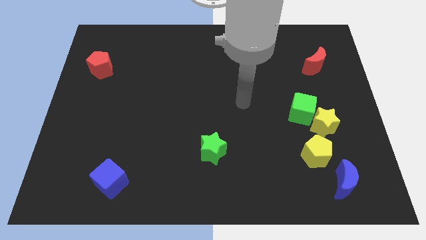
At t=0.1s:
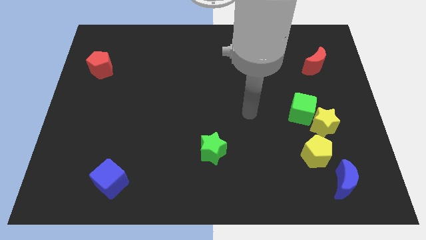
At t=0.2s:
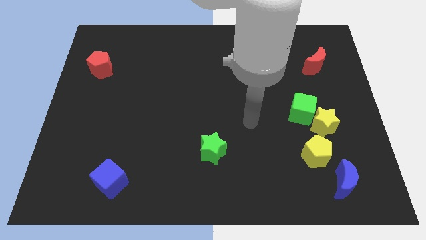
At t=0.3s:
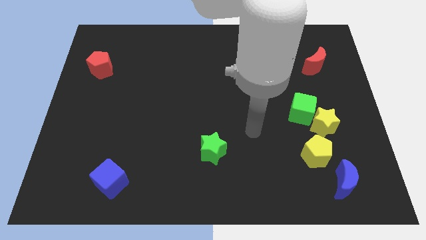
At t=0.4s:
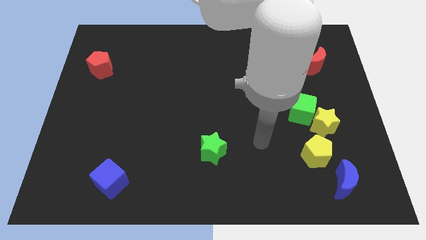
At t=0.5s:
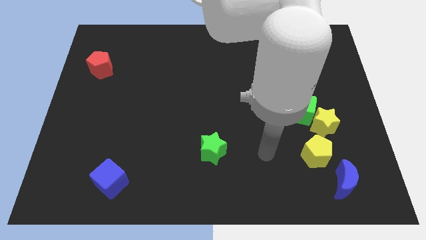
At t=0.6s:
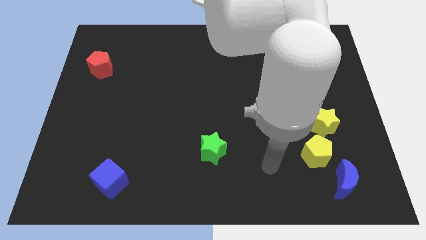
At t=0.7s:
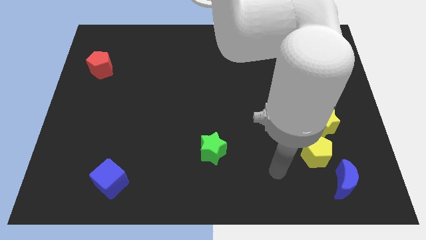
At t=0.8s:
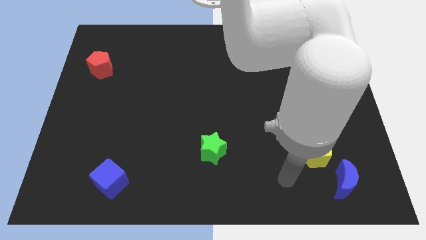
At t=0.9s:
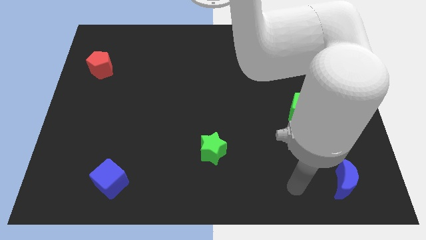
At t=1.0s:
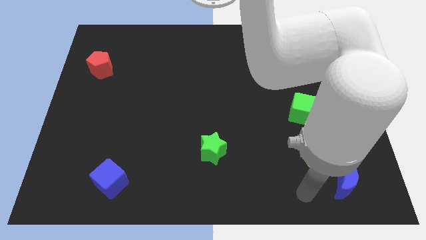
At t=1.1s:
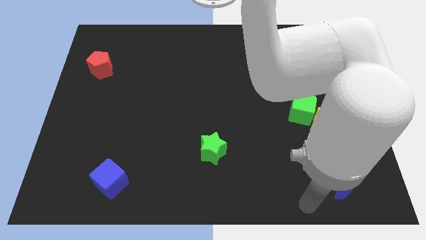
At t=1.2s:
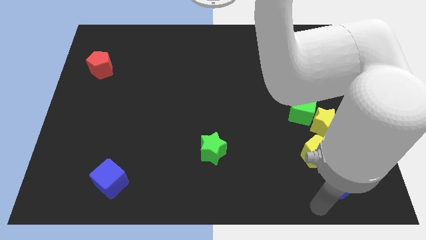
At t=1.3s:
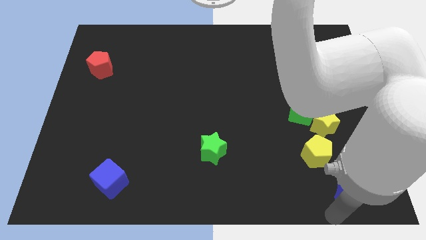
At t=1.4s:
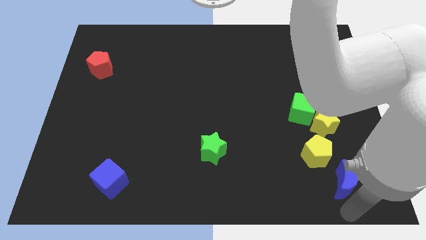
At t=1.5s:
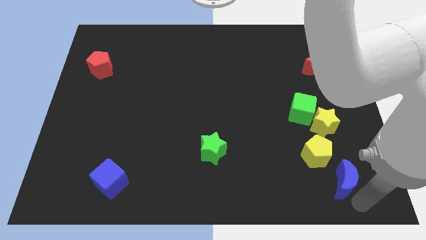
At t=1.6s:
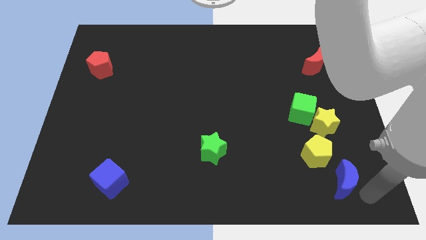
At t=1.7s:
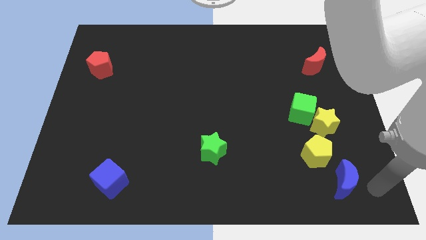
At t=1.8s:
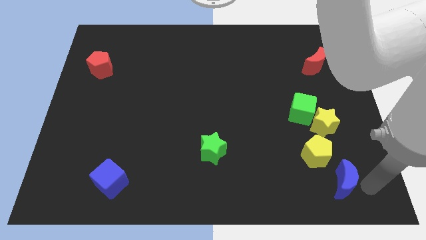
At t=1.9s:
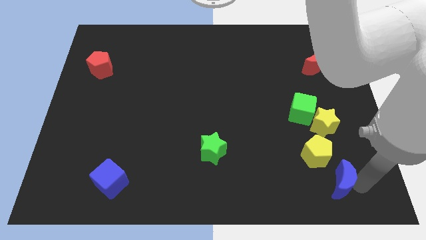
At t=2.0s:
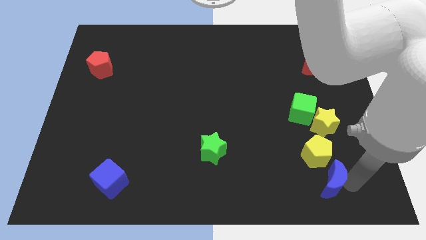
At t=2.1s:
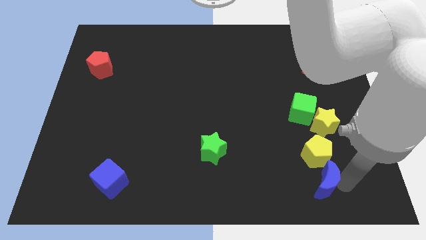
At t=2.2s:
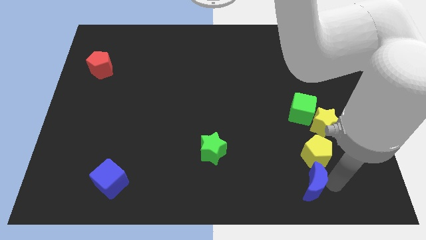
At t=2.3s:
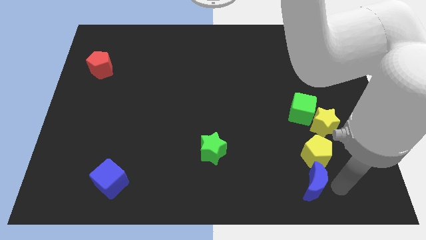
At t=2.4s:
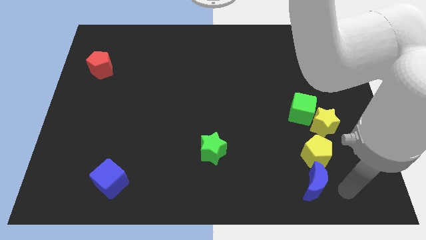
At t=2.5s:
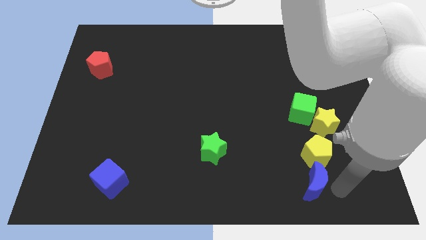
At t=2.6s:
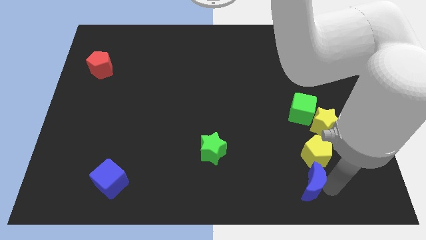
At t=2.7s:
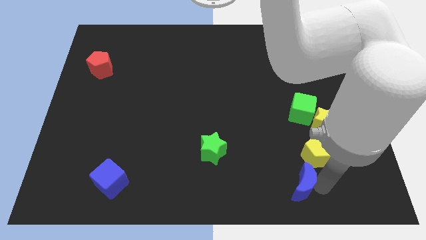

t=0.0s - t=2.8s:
push the blue moon left slightly

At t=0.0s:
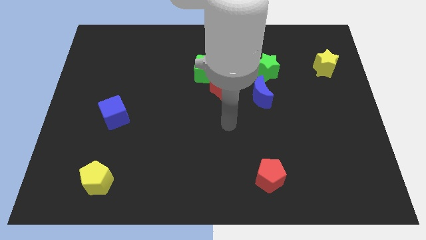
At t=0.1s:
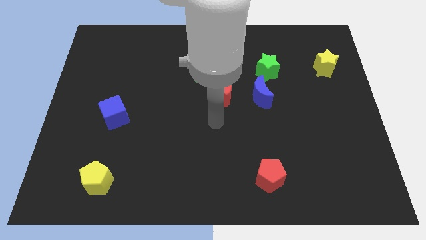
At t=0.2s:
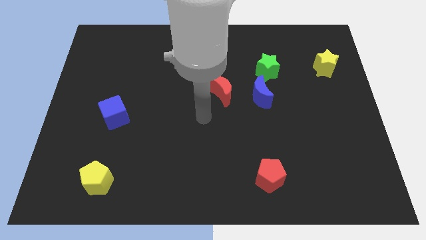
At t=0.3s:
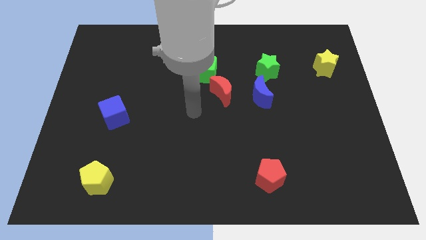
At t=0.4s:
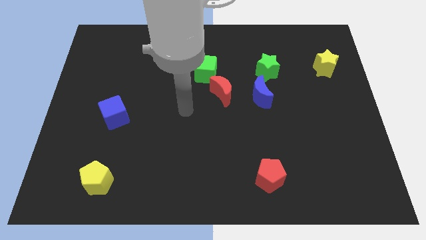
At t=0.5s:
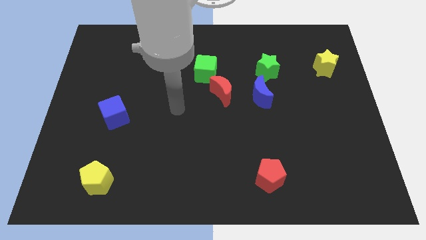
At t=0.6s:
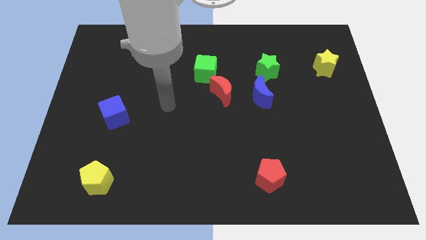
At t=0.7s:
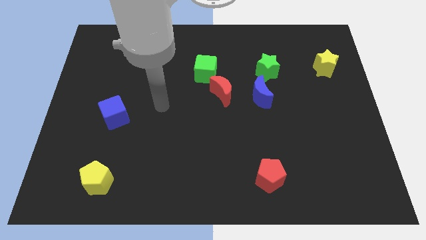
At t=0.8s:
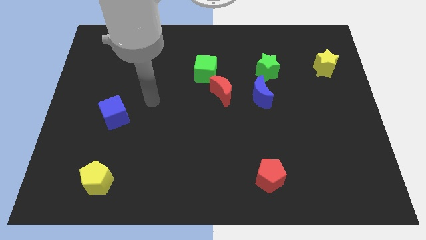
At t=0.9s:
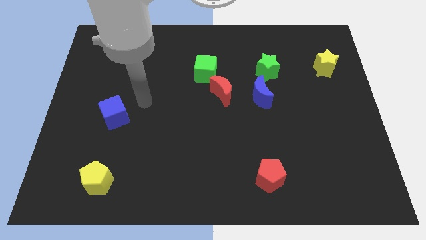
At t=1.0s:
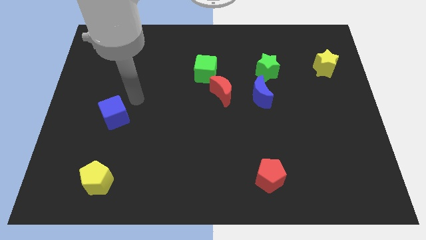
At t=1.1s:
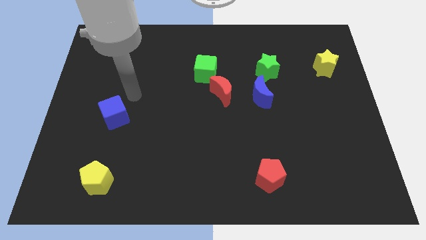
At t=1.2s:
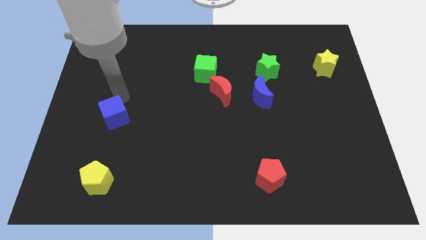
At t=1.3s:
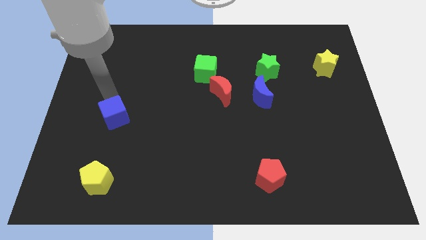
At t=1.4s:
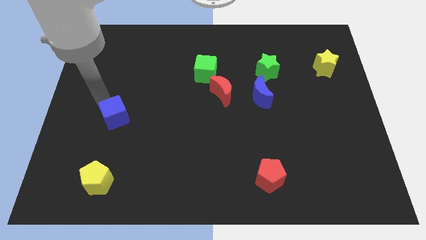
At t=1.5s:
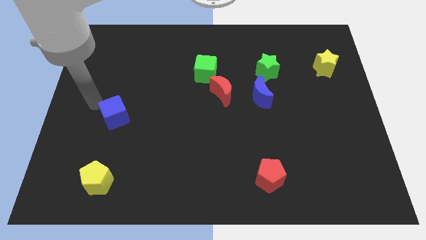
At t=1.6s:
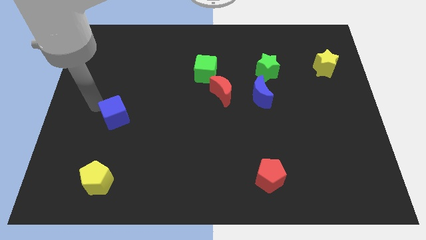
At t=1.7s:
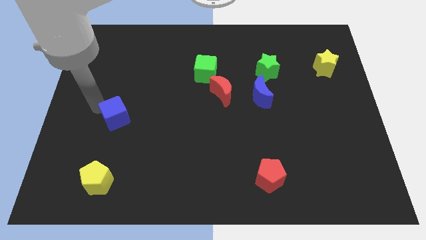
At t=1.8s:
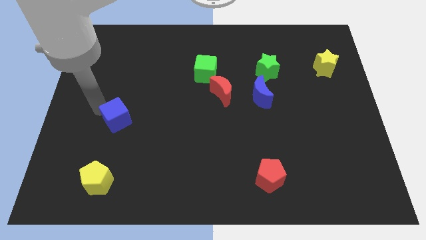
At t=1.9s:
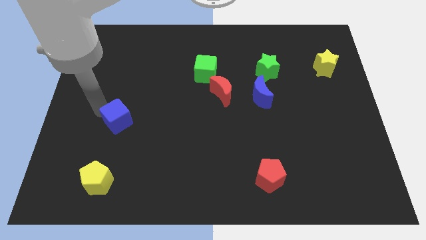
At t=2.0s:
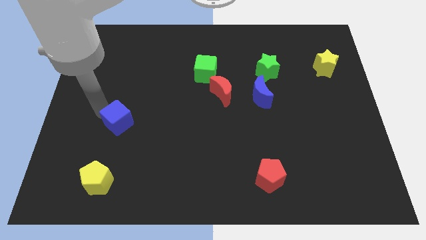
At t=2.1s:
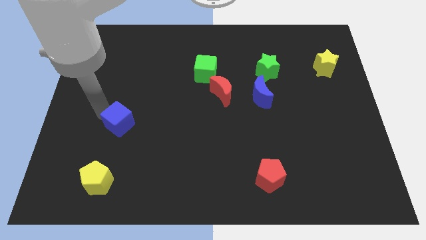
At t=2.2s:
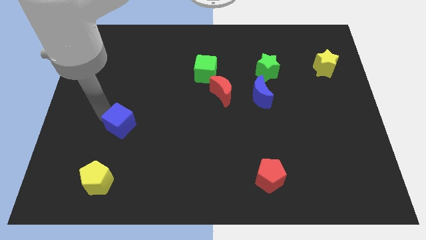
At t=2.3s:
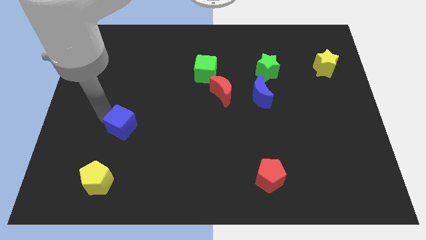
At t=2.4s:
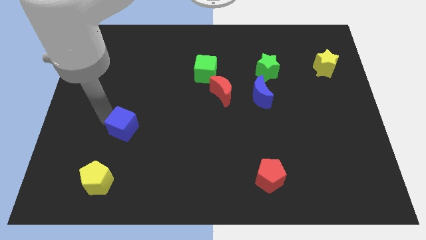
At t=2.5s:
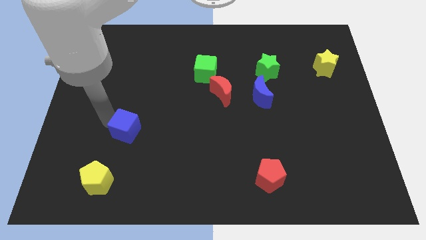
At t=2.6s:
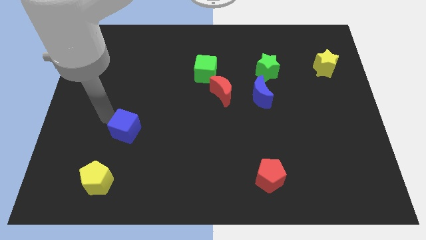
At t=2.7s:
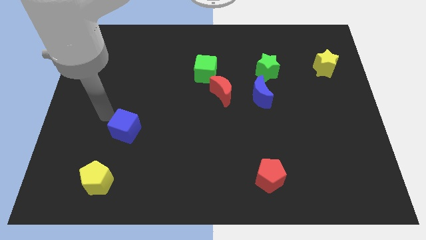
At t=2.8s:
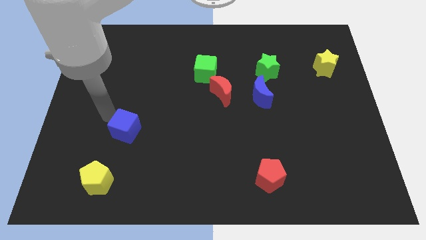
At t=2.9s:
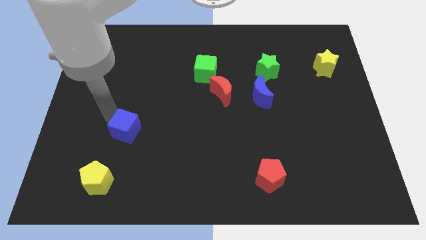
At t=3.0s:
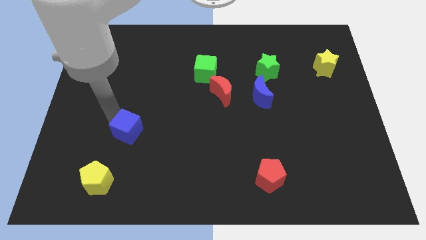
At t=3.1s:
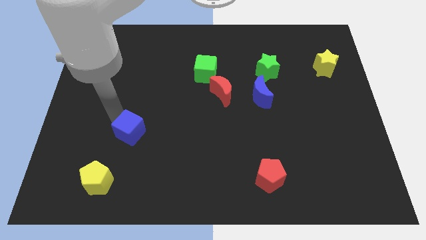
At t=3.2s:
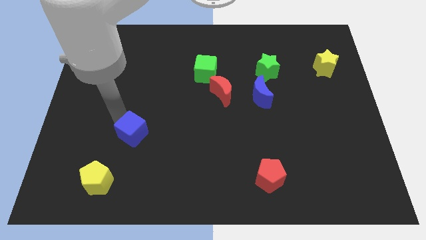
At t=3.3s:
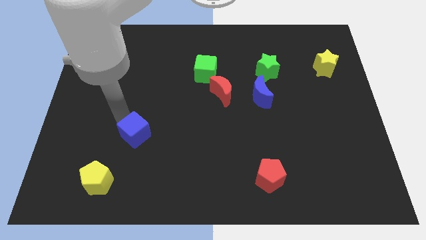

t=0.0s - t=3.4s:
push the blue cube down and to the right somewhat

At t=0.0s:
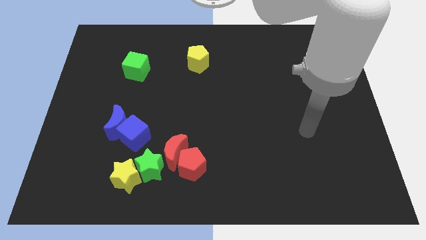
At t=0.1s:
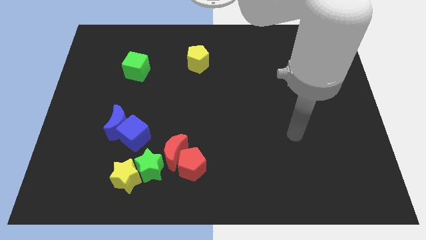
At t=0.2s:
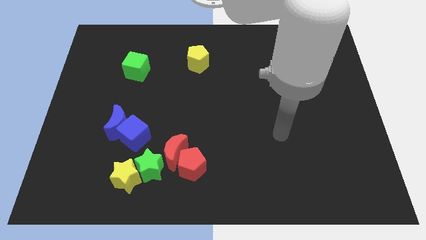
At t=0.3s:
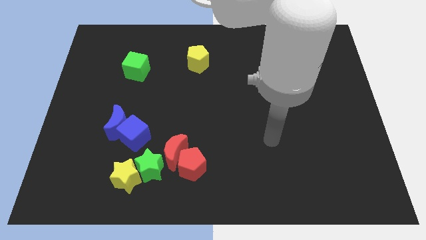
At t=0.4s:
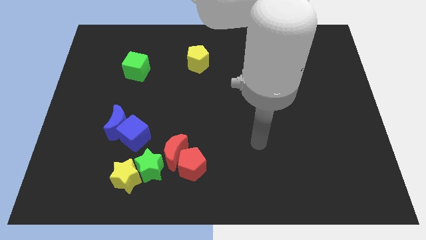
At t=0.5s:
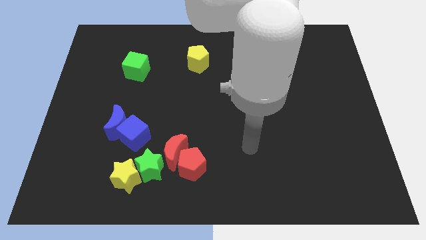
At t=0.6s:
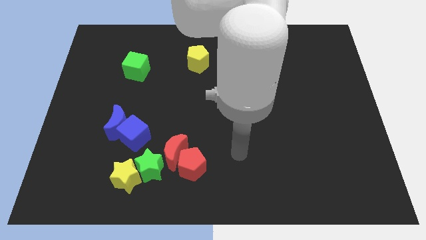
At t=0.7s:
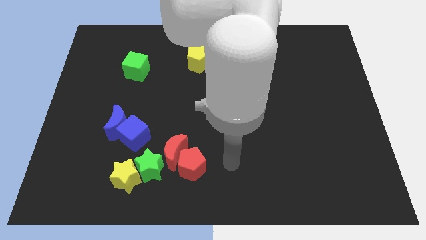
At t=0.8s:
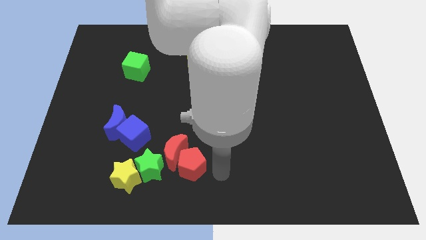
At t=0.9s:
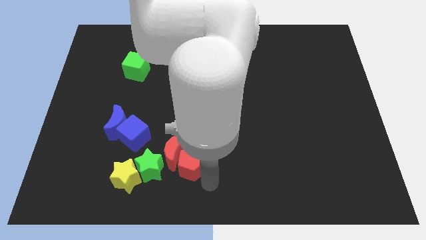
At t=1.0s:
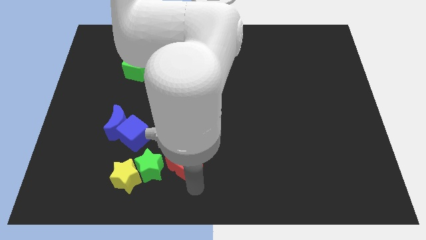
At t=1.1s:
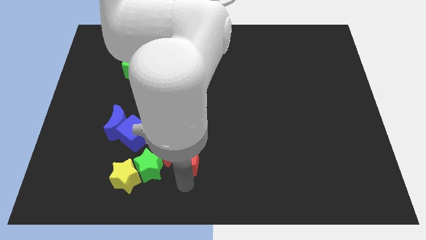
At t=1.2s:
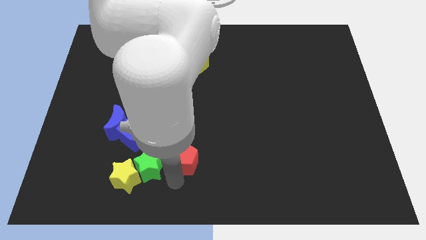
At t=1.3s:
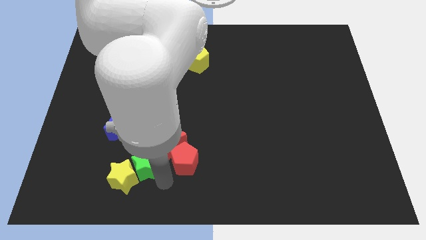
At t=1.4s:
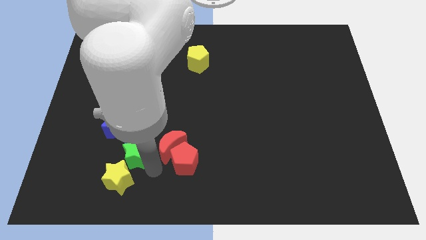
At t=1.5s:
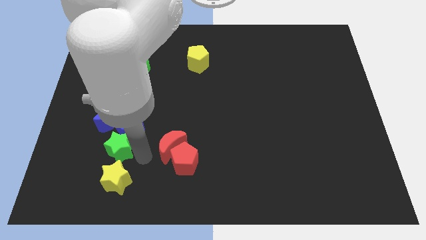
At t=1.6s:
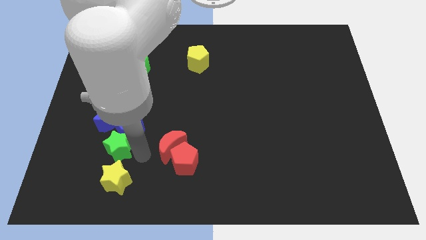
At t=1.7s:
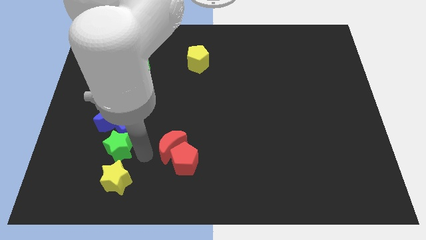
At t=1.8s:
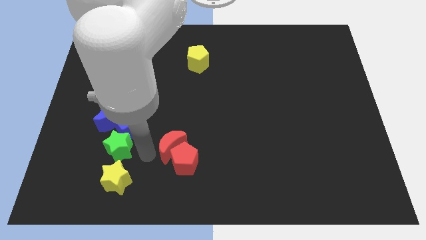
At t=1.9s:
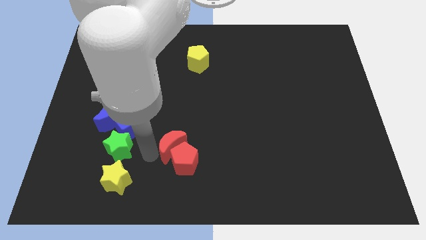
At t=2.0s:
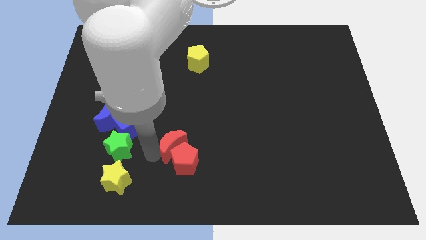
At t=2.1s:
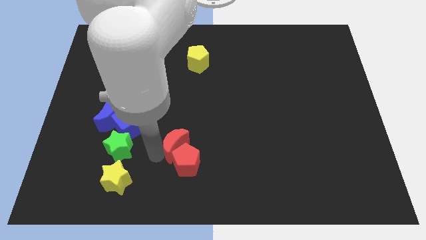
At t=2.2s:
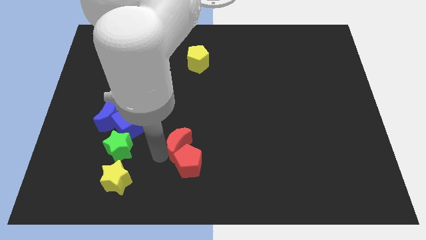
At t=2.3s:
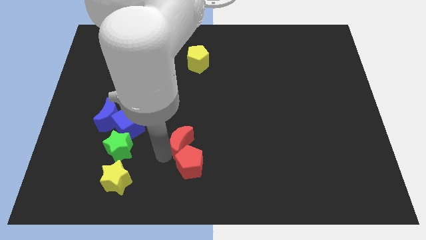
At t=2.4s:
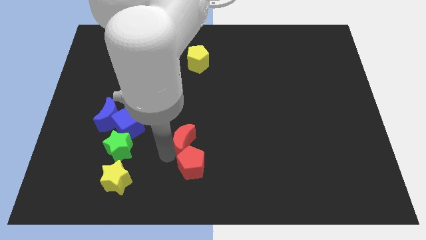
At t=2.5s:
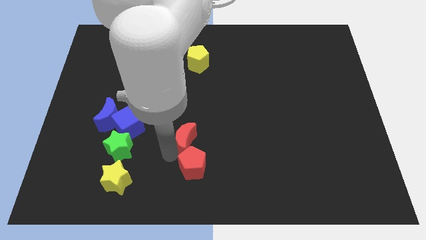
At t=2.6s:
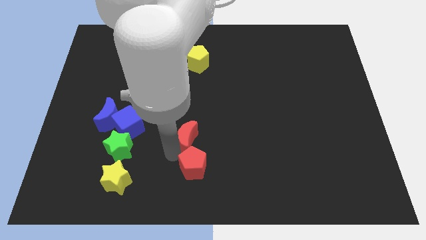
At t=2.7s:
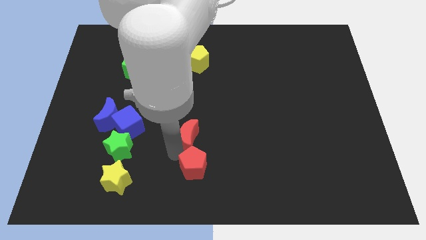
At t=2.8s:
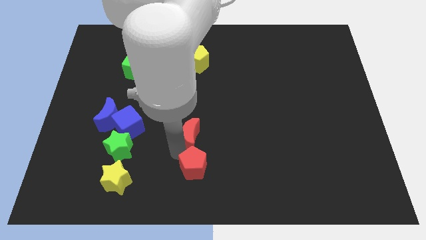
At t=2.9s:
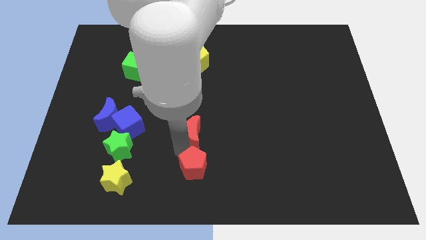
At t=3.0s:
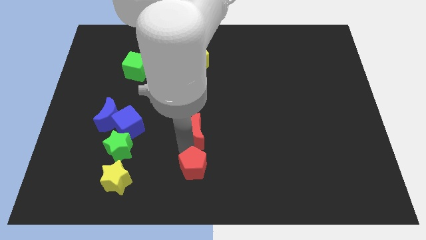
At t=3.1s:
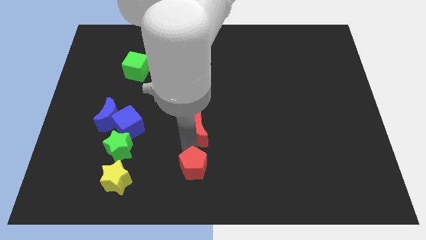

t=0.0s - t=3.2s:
move the red moon diagonally up and to the right a bit
